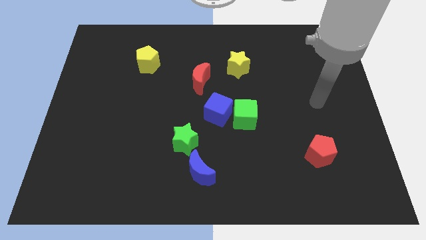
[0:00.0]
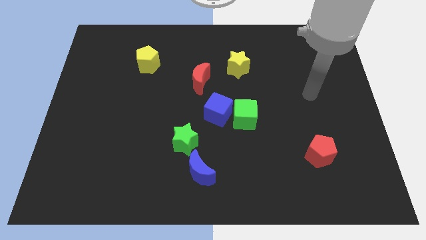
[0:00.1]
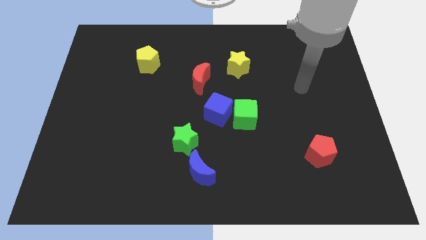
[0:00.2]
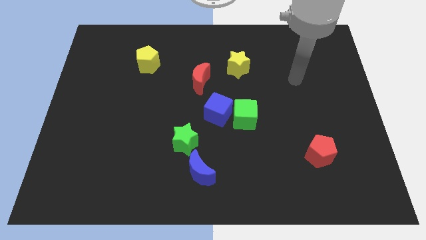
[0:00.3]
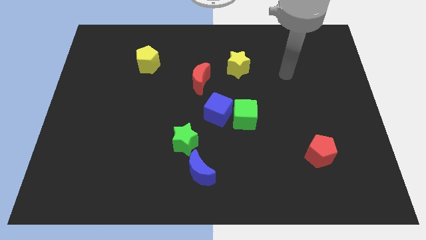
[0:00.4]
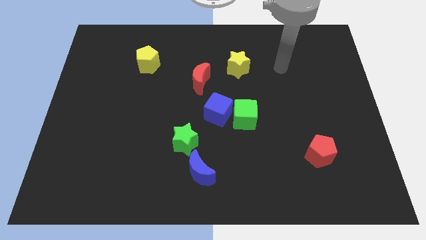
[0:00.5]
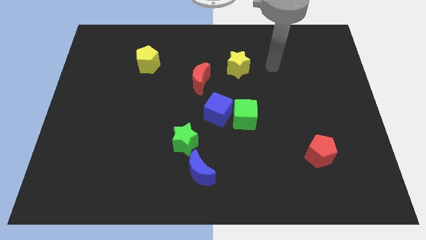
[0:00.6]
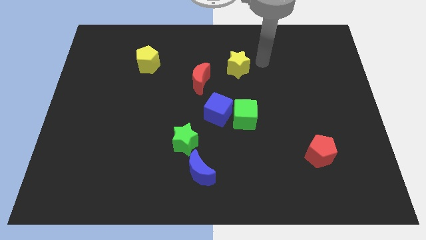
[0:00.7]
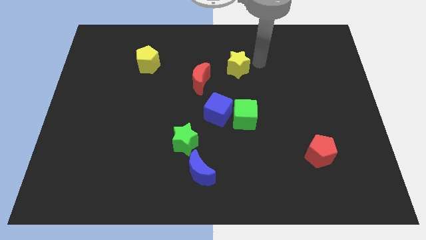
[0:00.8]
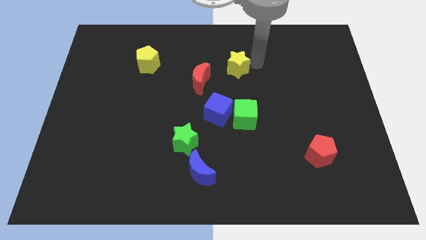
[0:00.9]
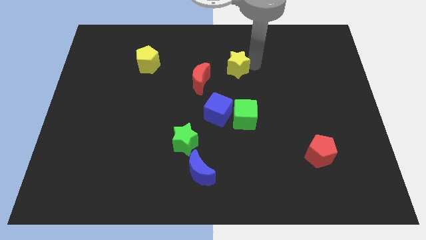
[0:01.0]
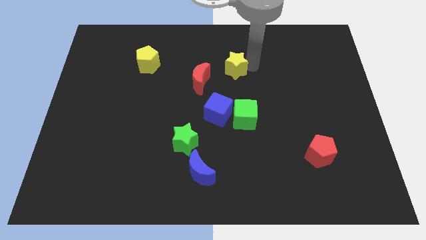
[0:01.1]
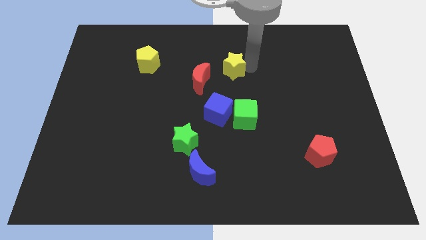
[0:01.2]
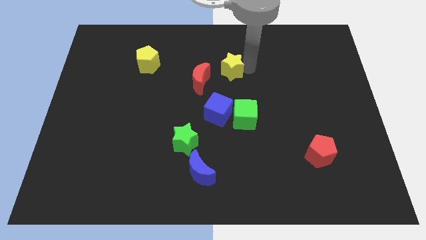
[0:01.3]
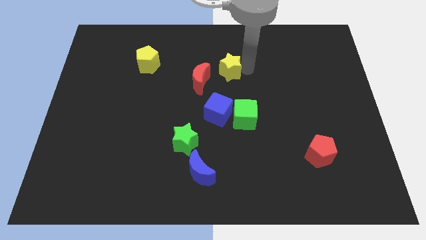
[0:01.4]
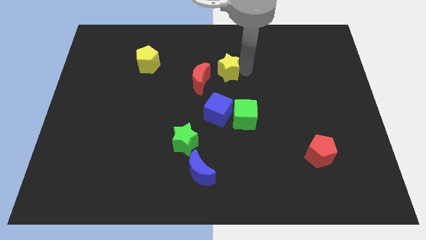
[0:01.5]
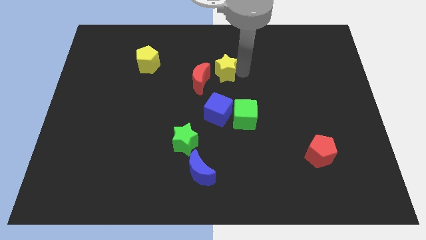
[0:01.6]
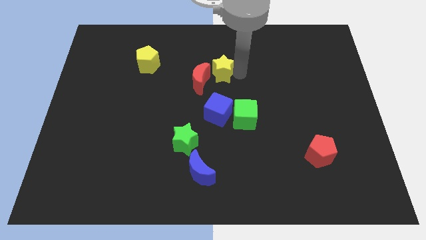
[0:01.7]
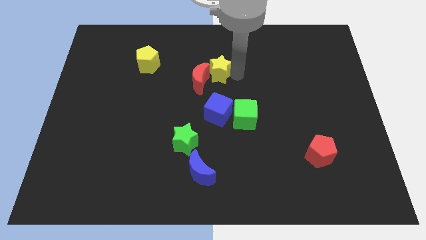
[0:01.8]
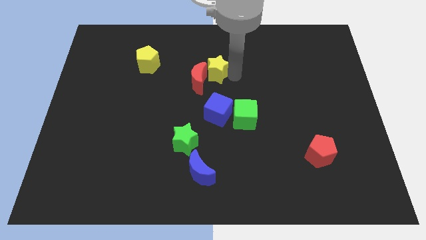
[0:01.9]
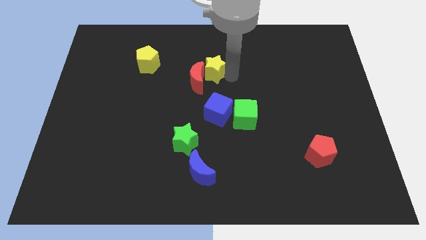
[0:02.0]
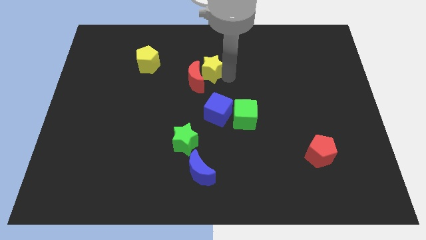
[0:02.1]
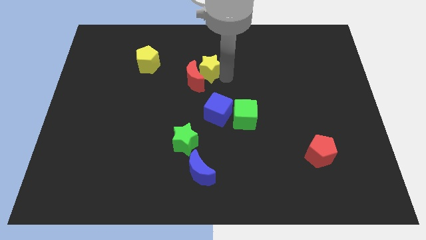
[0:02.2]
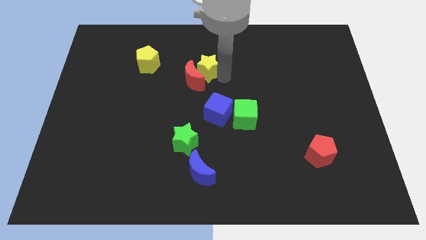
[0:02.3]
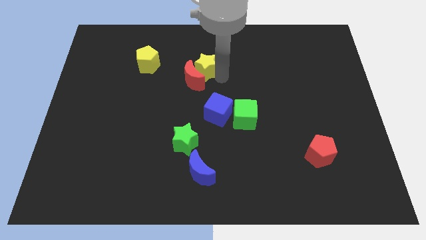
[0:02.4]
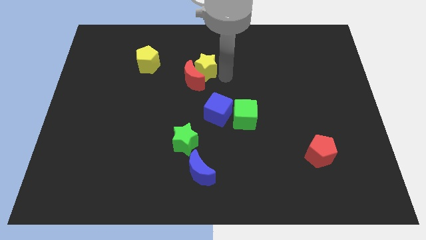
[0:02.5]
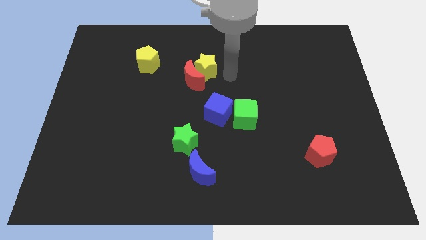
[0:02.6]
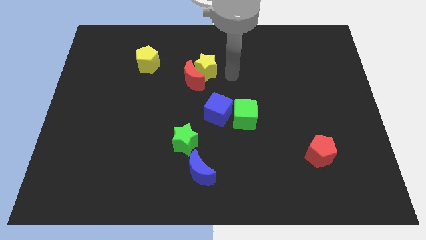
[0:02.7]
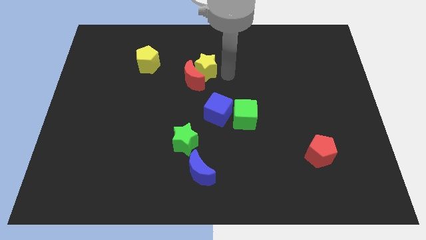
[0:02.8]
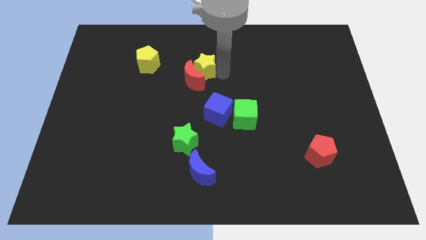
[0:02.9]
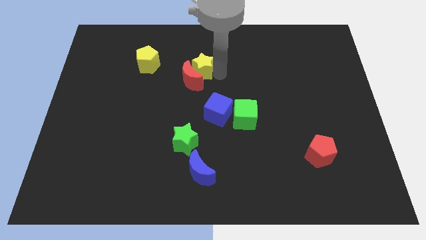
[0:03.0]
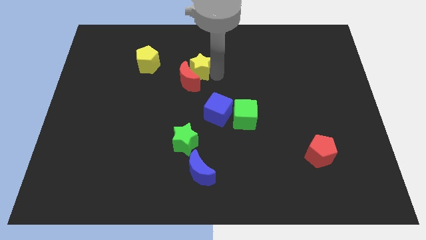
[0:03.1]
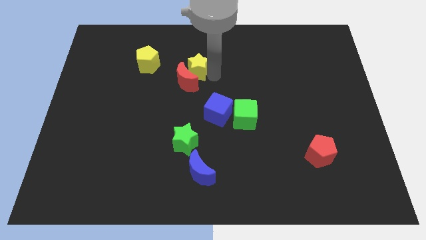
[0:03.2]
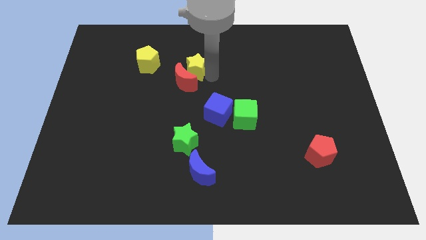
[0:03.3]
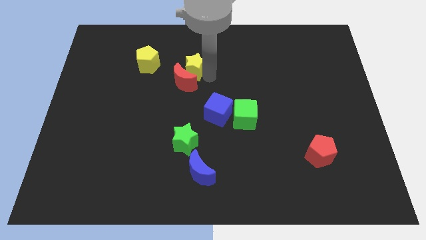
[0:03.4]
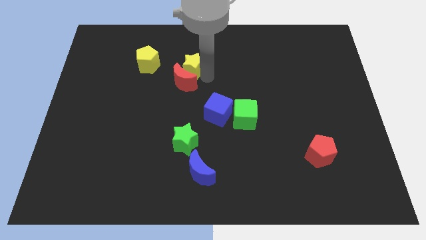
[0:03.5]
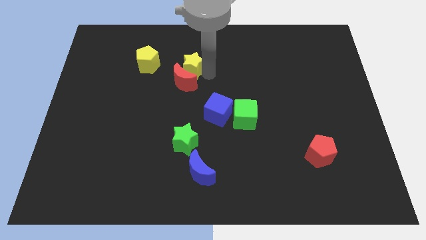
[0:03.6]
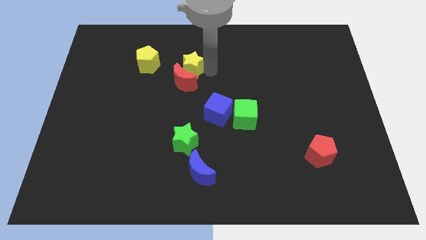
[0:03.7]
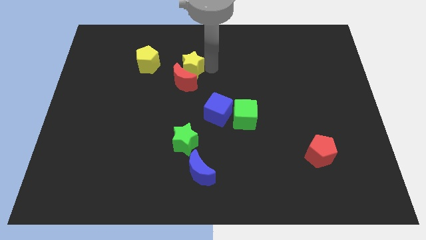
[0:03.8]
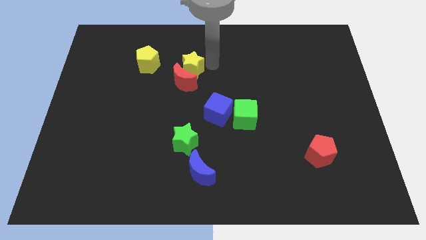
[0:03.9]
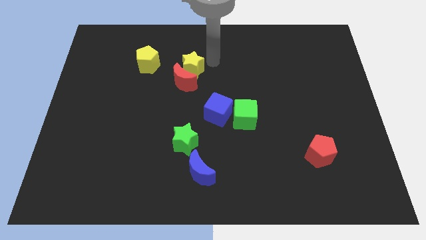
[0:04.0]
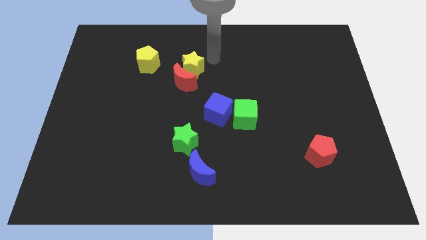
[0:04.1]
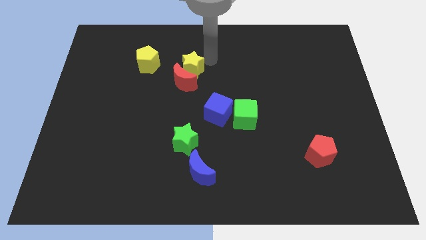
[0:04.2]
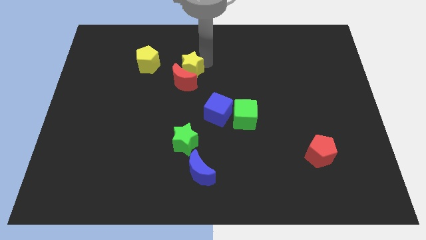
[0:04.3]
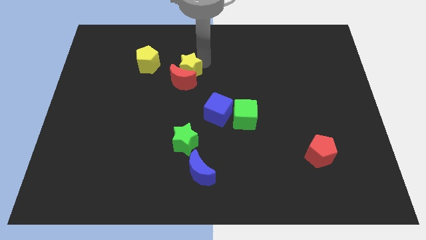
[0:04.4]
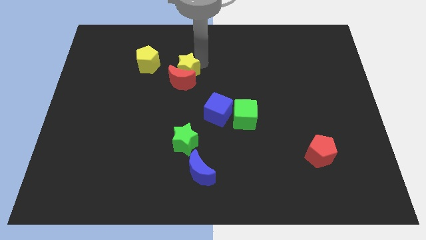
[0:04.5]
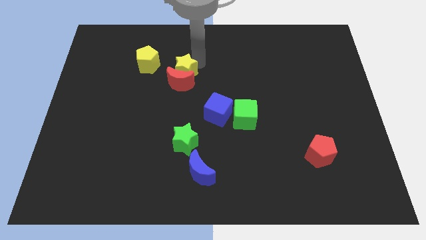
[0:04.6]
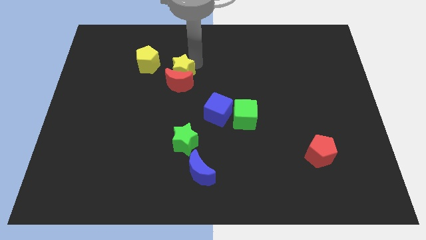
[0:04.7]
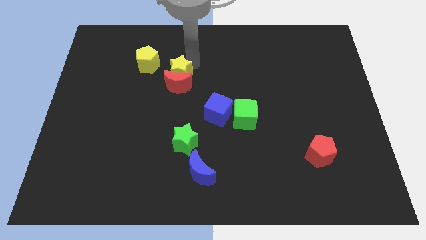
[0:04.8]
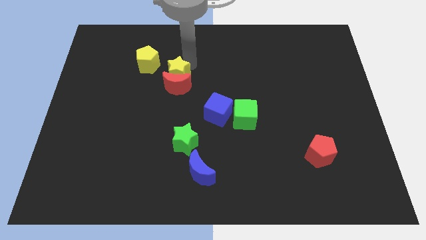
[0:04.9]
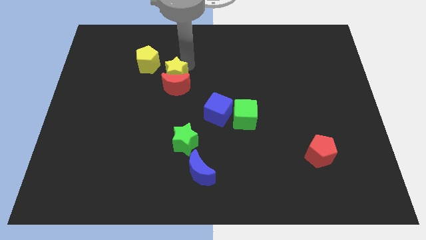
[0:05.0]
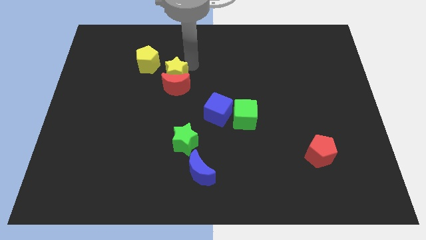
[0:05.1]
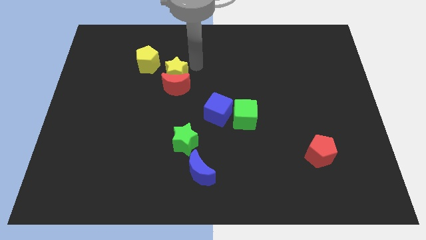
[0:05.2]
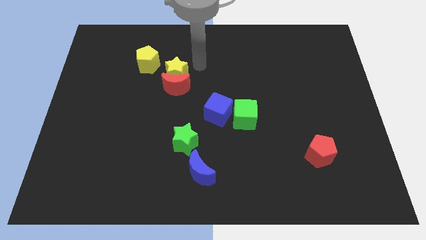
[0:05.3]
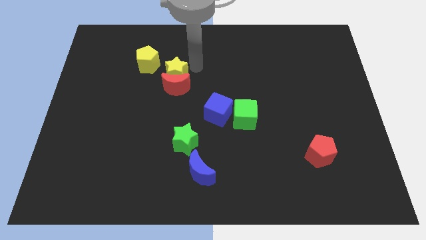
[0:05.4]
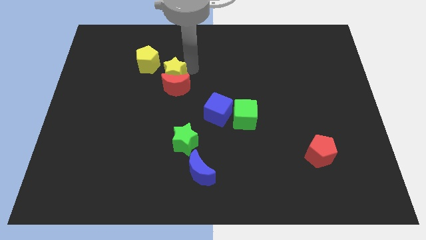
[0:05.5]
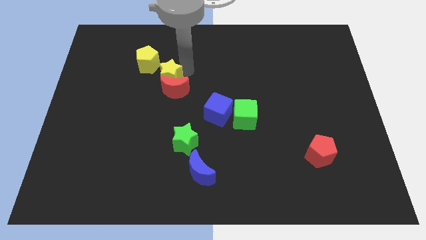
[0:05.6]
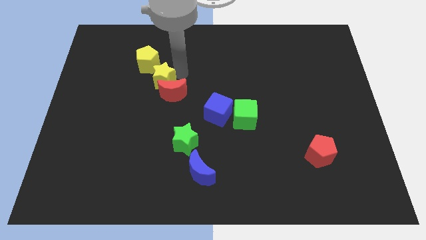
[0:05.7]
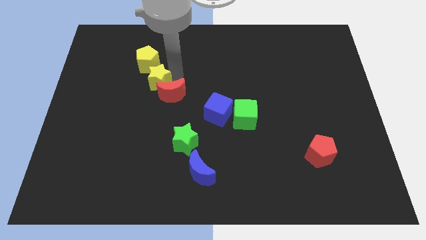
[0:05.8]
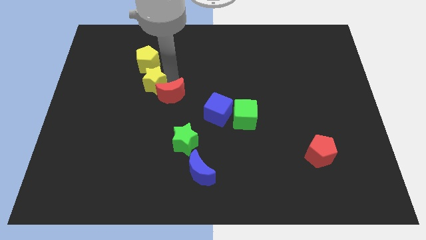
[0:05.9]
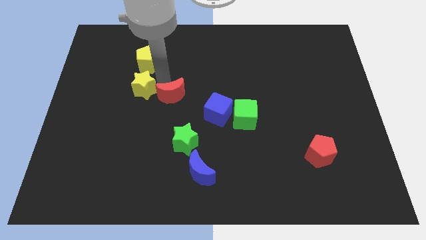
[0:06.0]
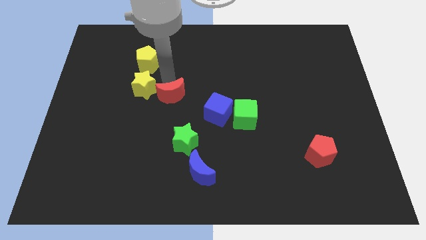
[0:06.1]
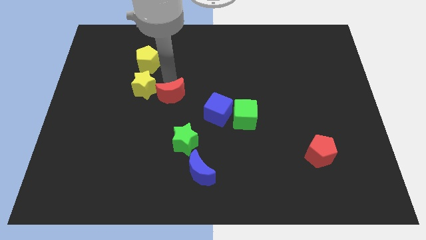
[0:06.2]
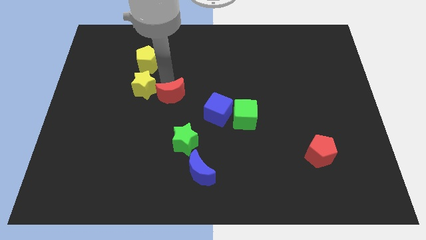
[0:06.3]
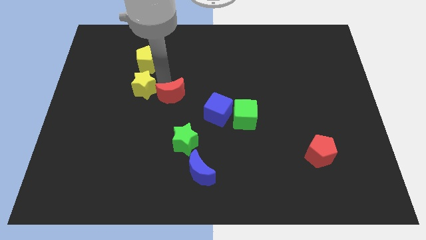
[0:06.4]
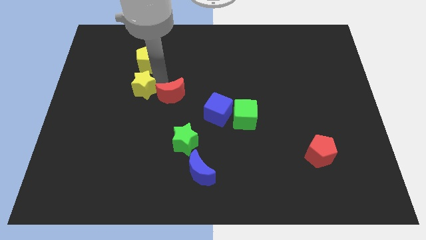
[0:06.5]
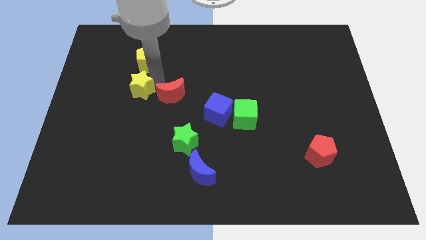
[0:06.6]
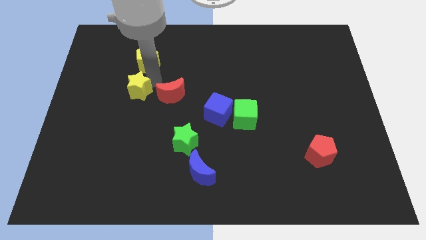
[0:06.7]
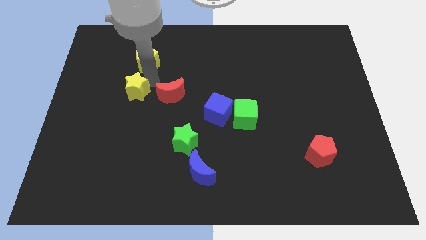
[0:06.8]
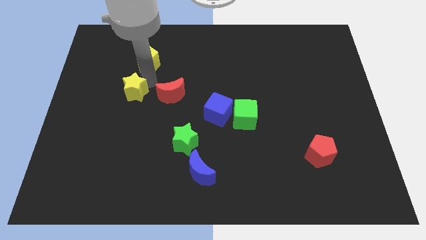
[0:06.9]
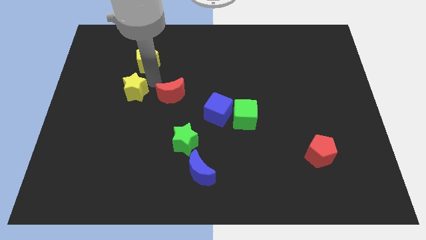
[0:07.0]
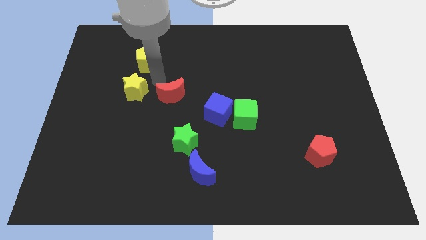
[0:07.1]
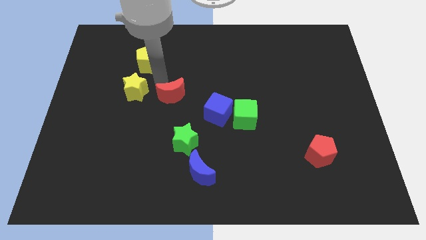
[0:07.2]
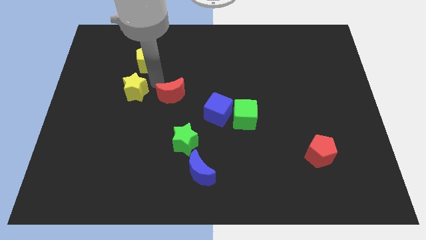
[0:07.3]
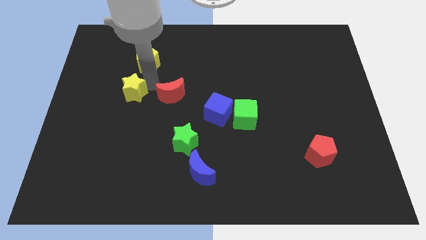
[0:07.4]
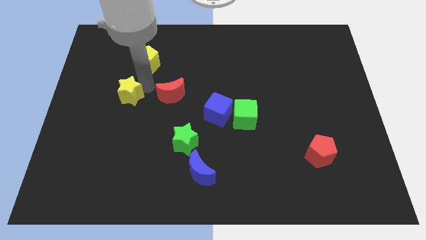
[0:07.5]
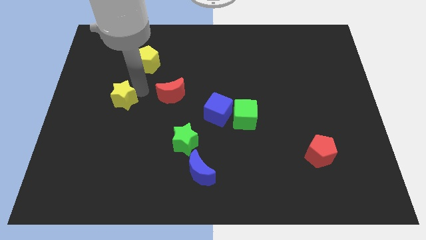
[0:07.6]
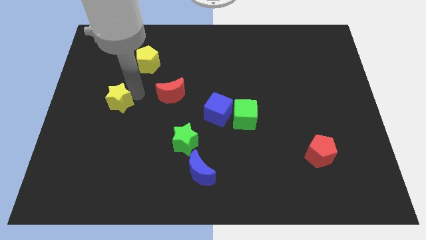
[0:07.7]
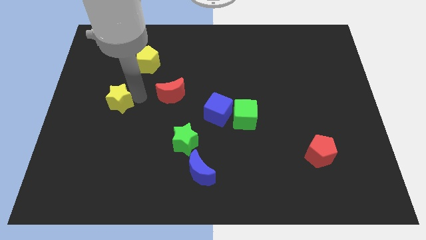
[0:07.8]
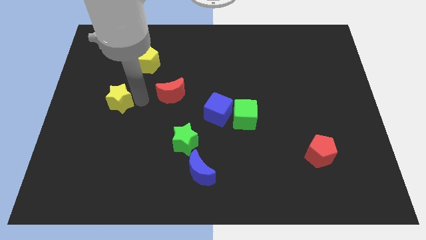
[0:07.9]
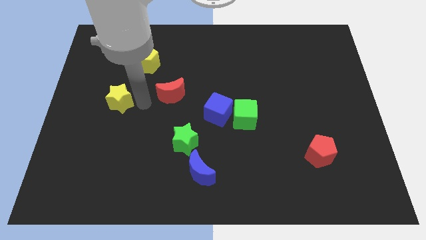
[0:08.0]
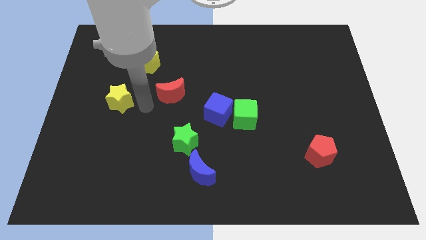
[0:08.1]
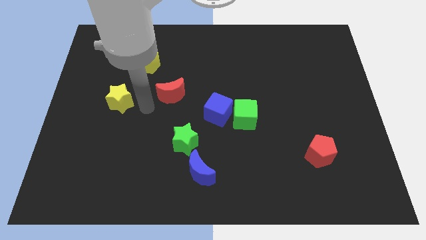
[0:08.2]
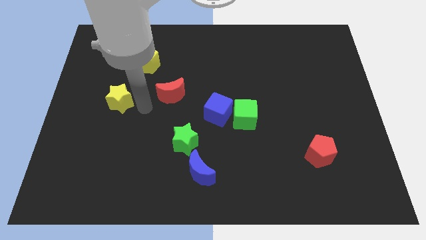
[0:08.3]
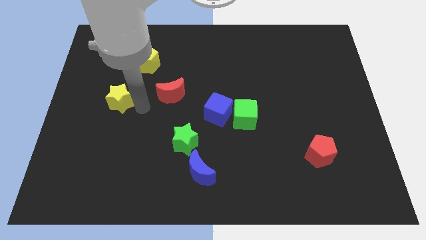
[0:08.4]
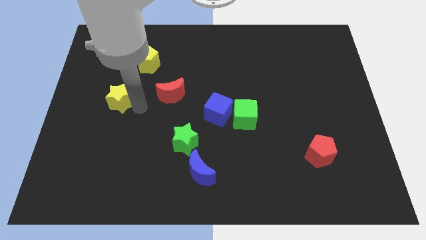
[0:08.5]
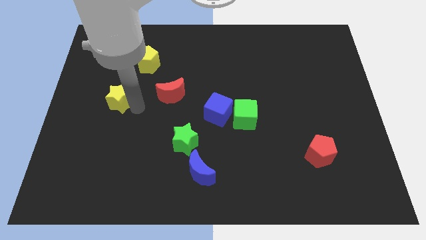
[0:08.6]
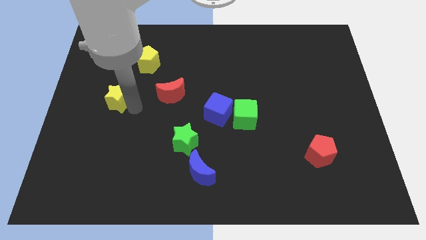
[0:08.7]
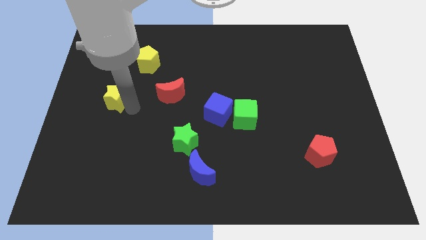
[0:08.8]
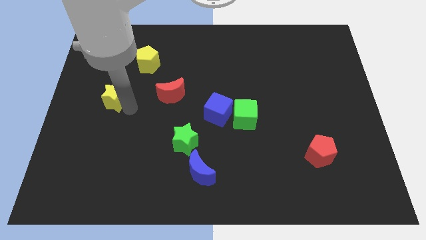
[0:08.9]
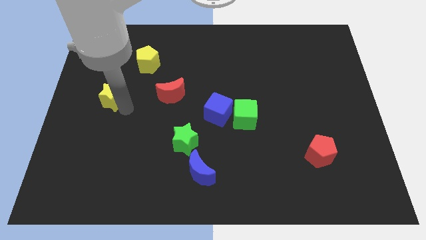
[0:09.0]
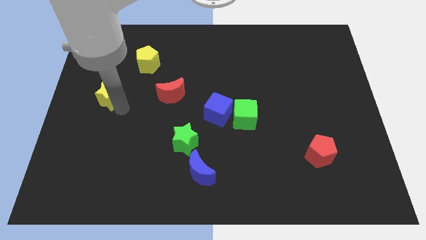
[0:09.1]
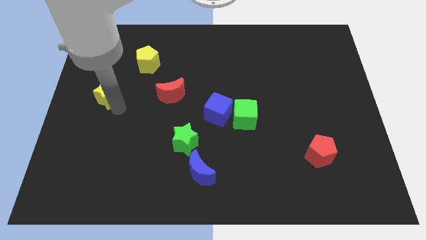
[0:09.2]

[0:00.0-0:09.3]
slide the yellow star to the left side of the board
